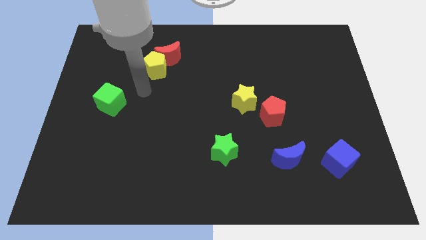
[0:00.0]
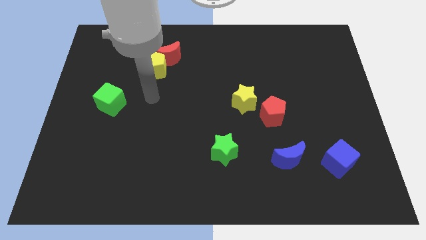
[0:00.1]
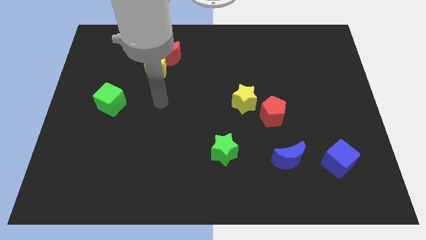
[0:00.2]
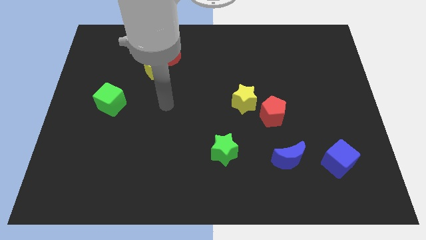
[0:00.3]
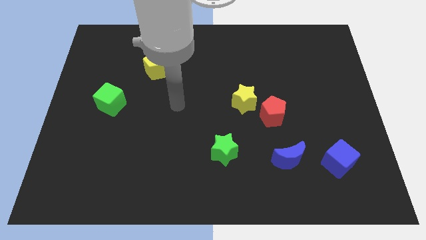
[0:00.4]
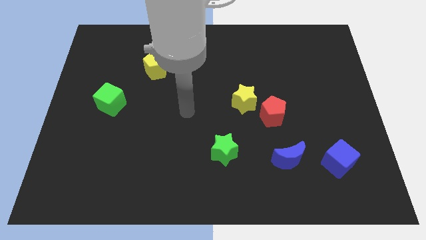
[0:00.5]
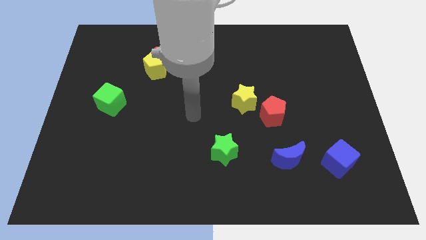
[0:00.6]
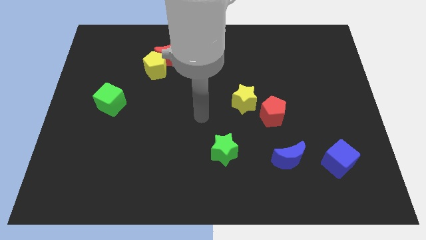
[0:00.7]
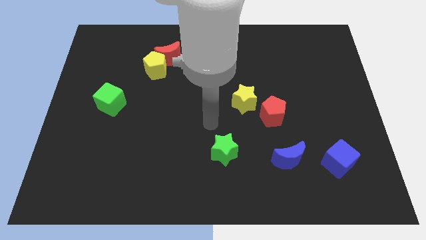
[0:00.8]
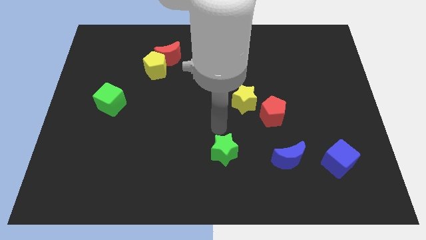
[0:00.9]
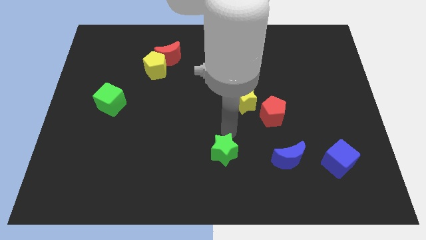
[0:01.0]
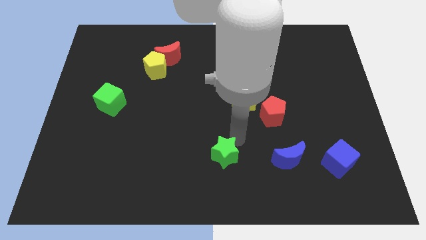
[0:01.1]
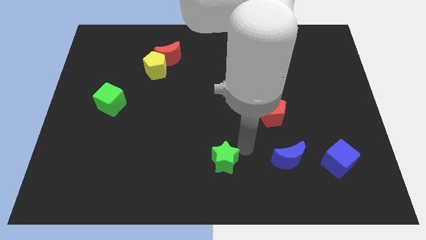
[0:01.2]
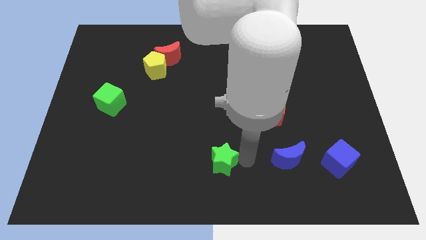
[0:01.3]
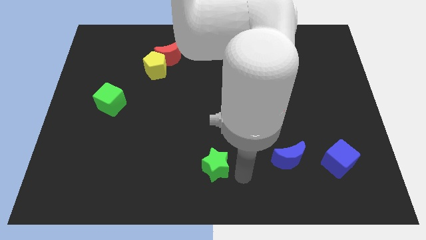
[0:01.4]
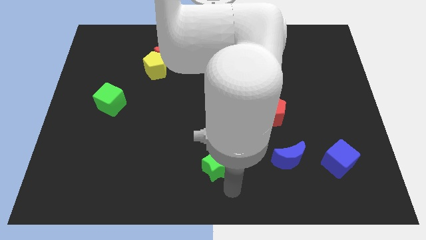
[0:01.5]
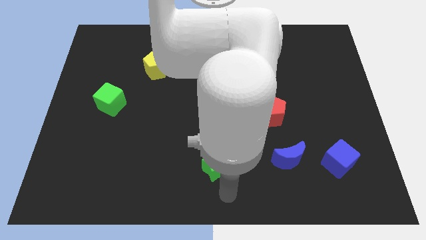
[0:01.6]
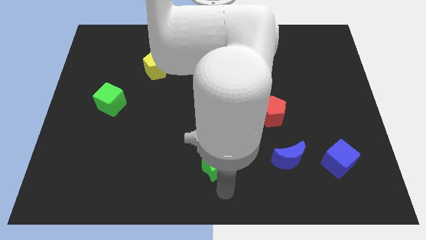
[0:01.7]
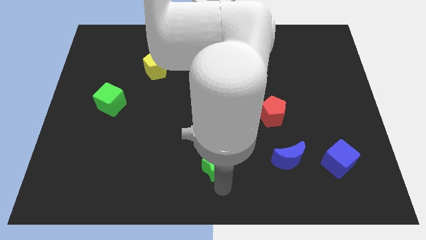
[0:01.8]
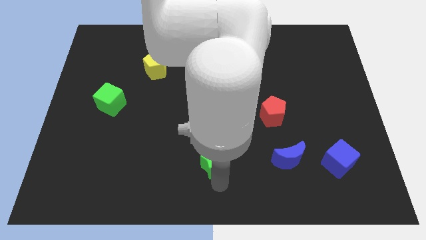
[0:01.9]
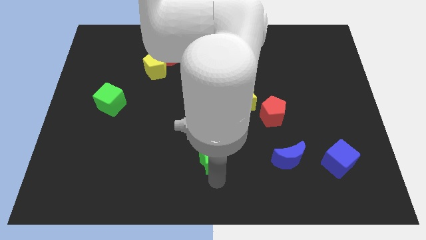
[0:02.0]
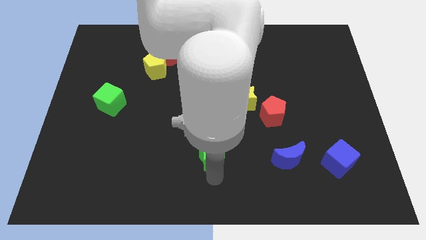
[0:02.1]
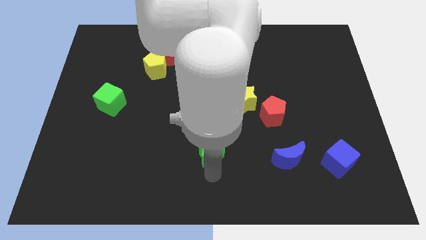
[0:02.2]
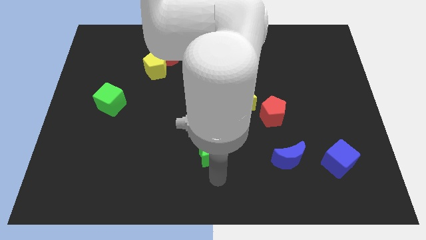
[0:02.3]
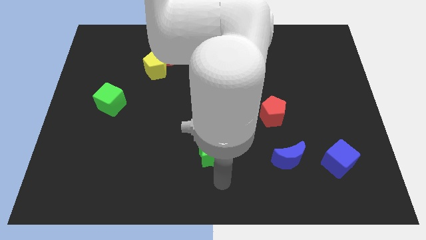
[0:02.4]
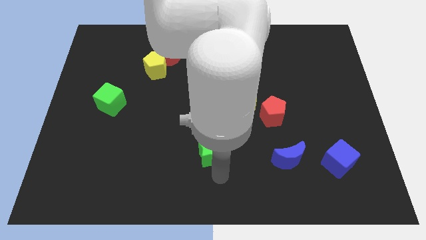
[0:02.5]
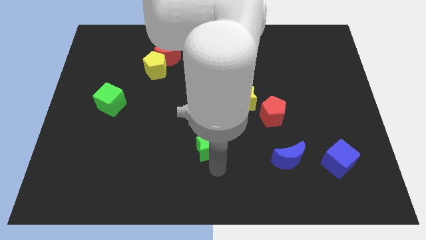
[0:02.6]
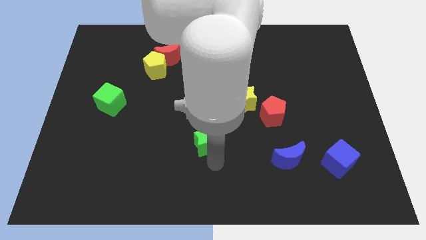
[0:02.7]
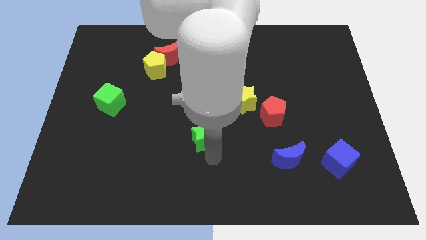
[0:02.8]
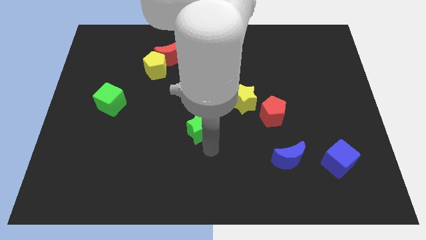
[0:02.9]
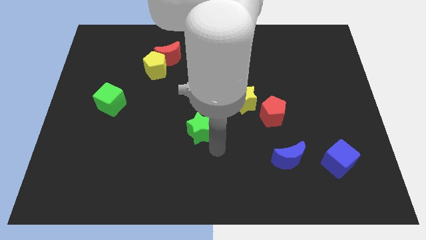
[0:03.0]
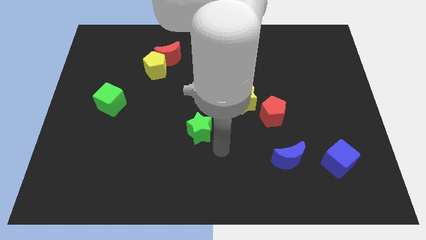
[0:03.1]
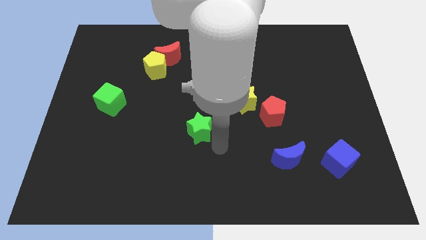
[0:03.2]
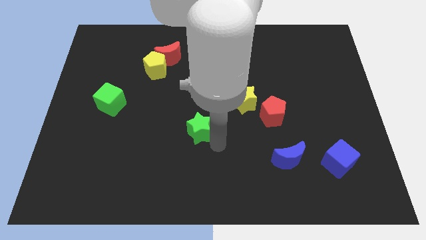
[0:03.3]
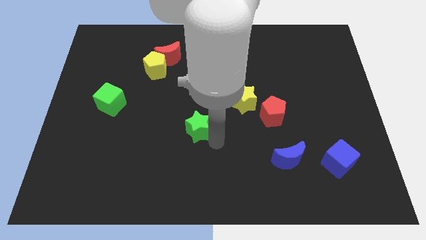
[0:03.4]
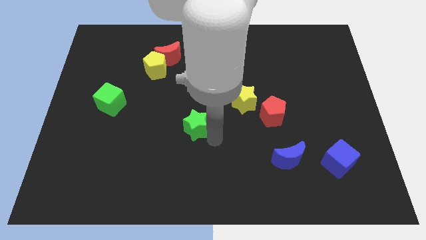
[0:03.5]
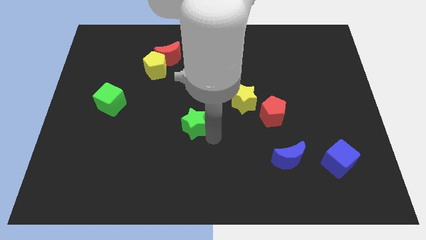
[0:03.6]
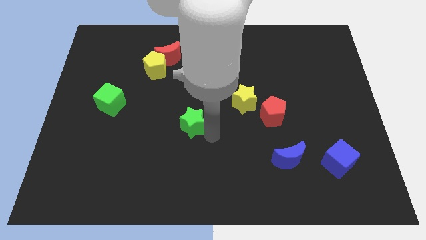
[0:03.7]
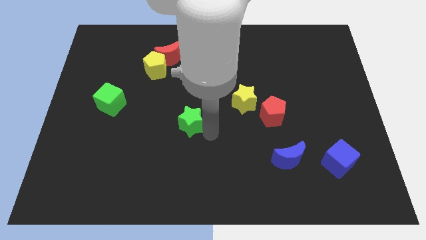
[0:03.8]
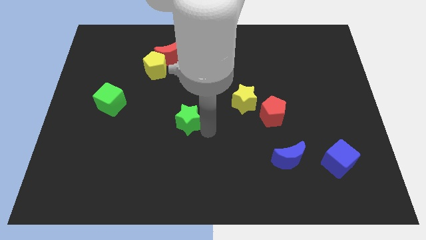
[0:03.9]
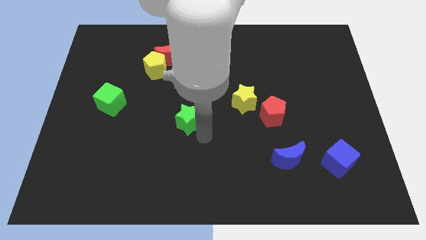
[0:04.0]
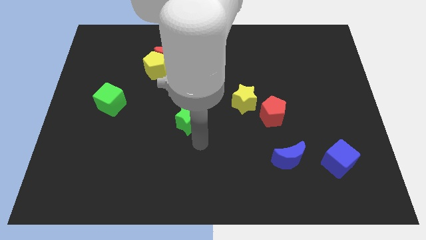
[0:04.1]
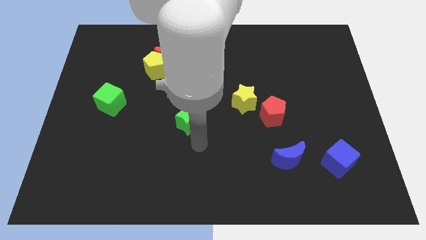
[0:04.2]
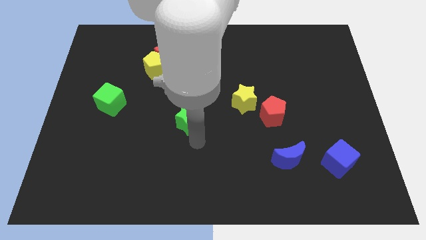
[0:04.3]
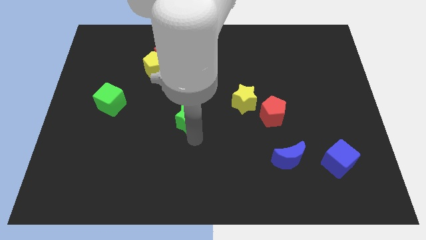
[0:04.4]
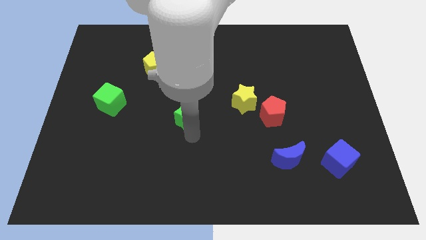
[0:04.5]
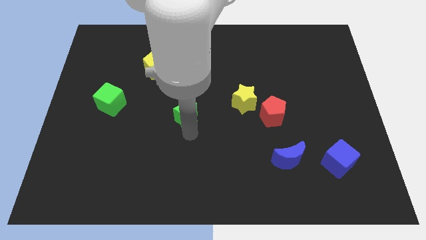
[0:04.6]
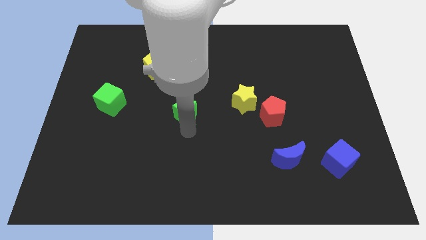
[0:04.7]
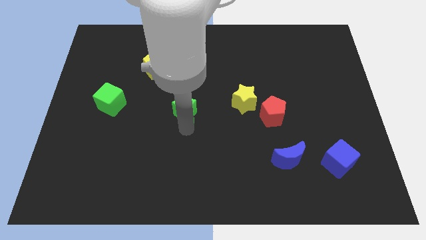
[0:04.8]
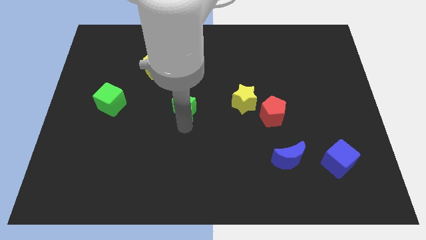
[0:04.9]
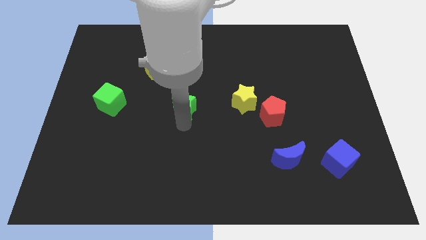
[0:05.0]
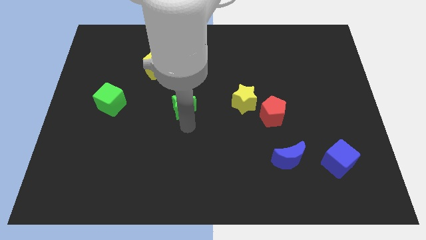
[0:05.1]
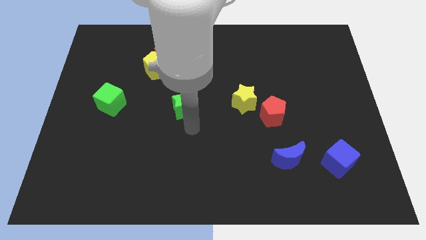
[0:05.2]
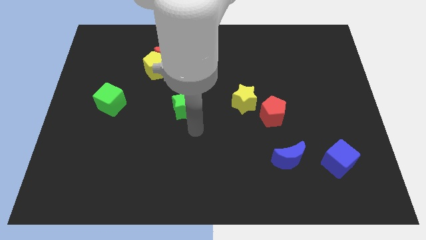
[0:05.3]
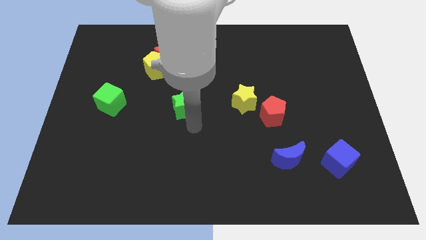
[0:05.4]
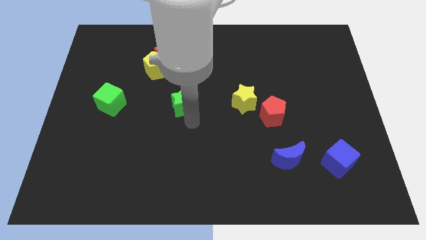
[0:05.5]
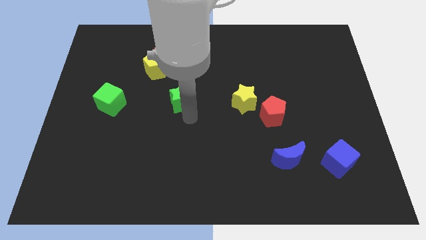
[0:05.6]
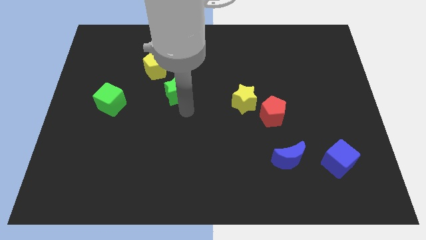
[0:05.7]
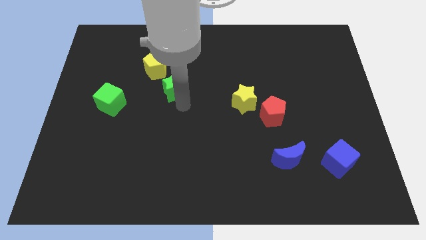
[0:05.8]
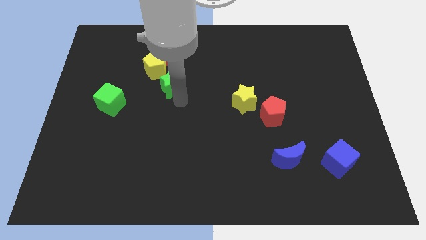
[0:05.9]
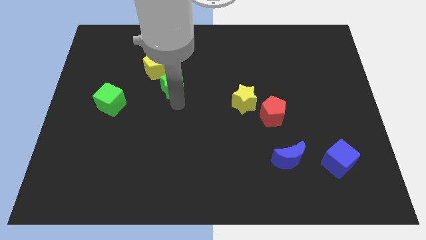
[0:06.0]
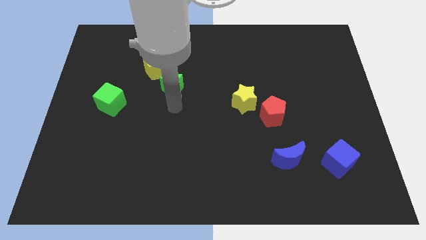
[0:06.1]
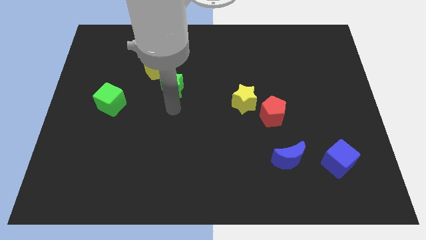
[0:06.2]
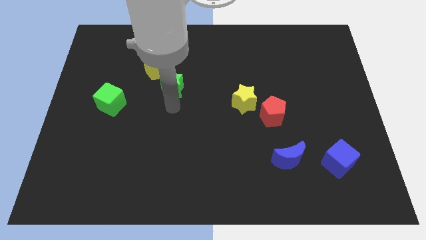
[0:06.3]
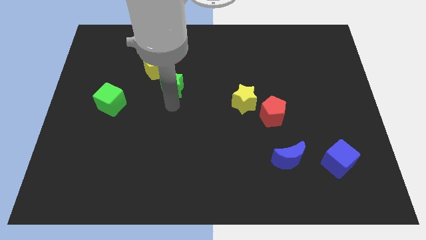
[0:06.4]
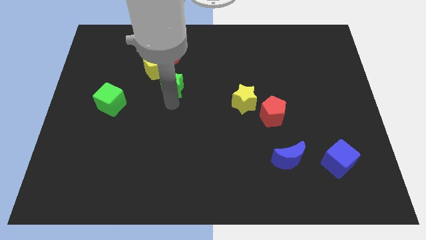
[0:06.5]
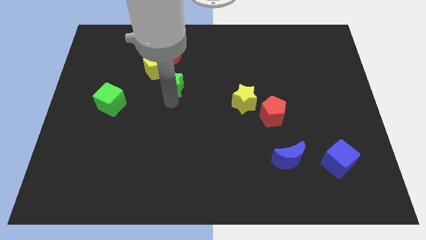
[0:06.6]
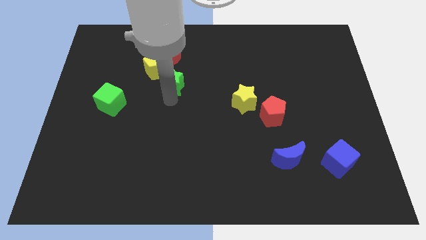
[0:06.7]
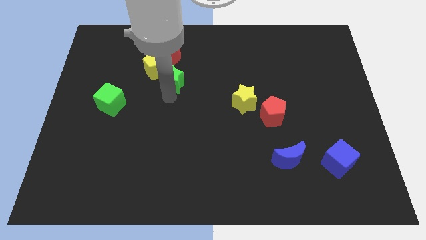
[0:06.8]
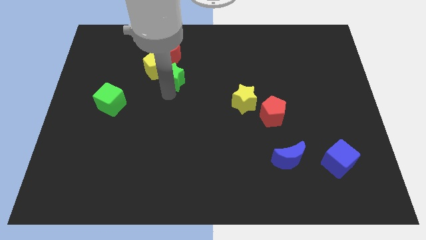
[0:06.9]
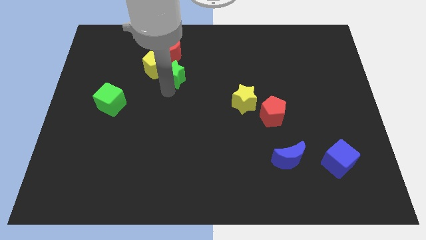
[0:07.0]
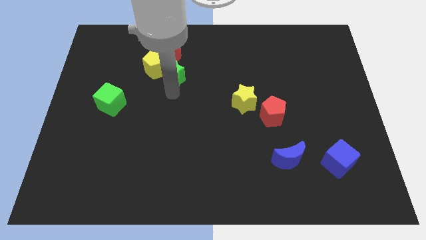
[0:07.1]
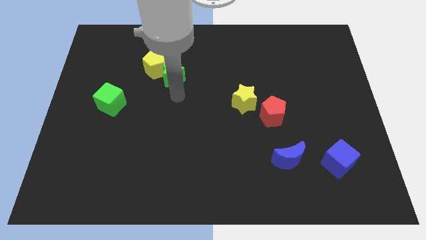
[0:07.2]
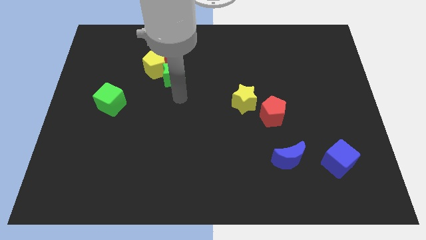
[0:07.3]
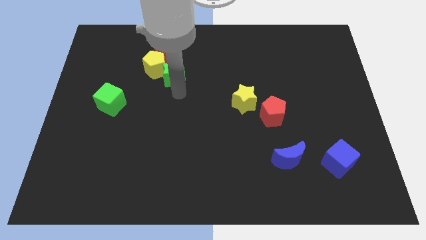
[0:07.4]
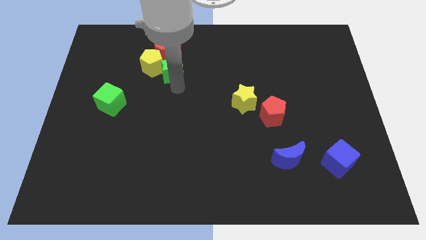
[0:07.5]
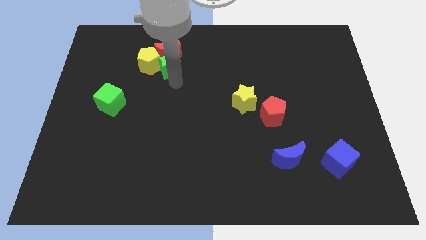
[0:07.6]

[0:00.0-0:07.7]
move the green star next to the red moon
